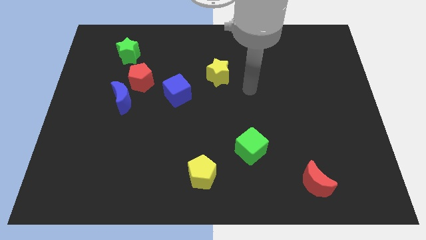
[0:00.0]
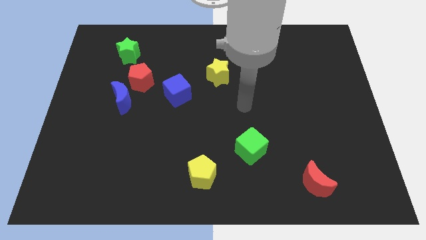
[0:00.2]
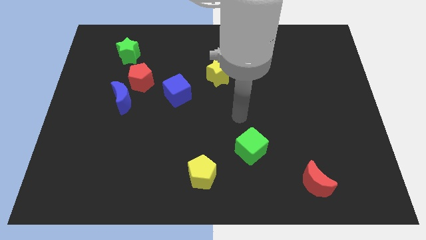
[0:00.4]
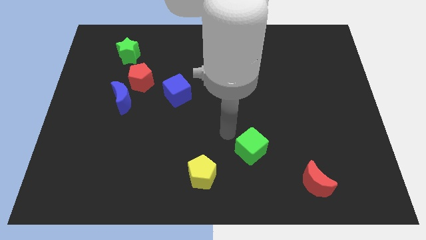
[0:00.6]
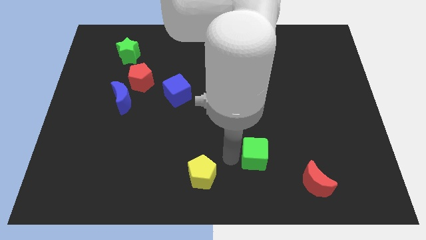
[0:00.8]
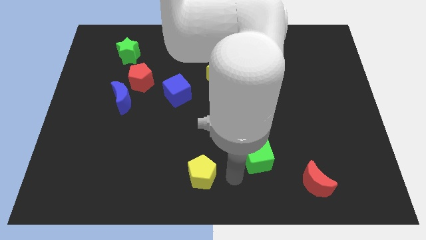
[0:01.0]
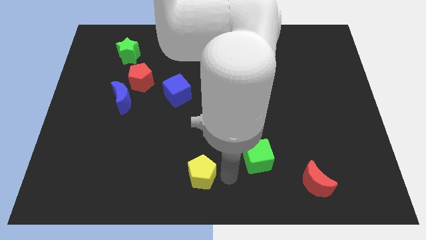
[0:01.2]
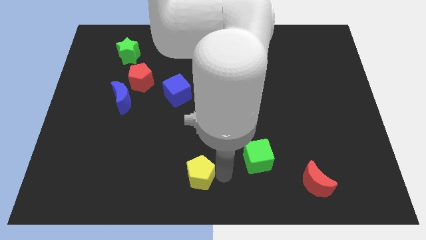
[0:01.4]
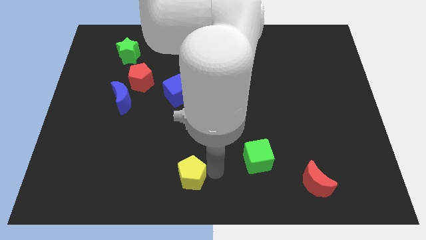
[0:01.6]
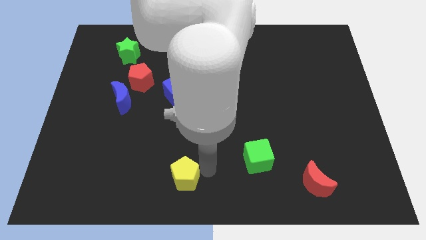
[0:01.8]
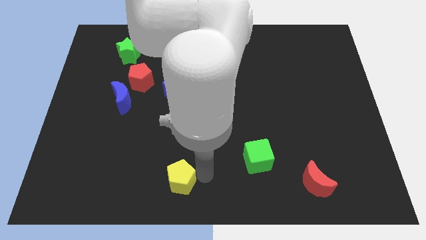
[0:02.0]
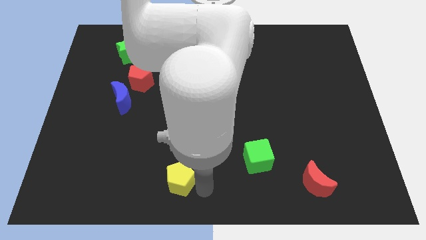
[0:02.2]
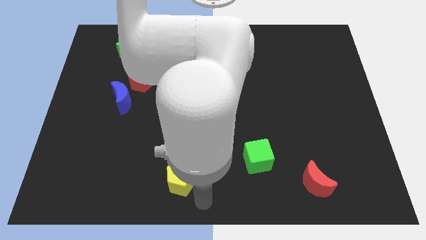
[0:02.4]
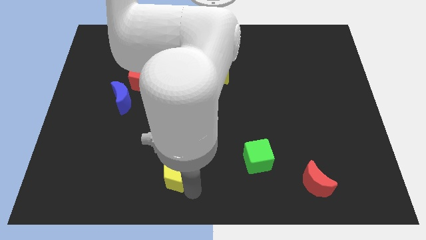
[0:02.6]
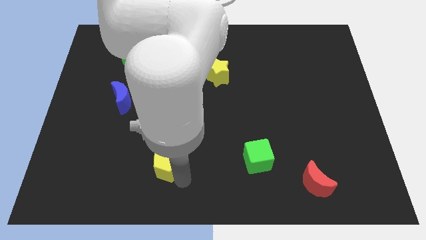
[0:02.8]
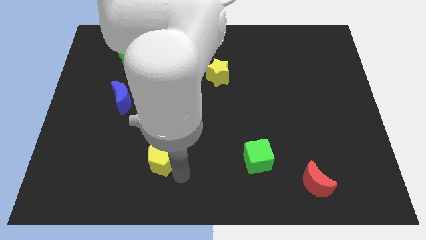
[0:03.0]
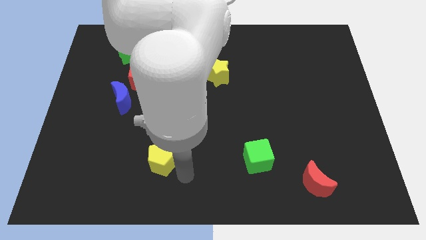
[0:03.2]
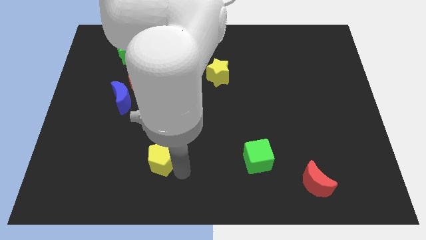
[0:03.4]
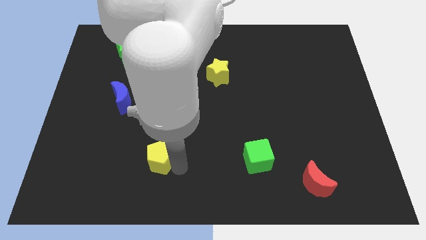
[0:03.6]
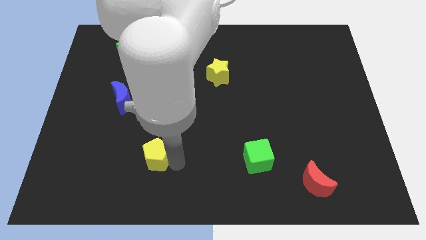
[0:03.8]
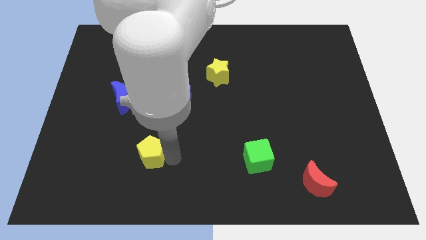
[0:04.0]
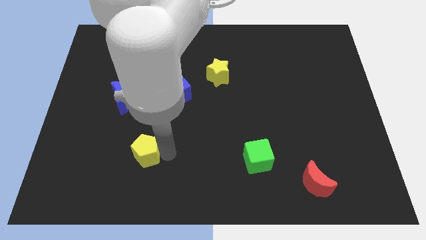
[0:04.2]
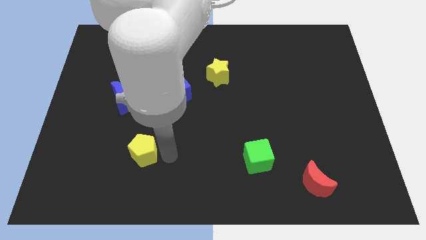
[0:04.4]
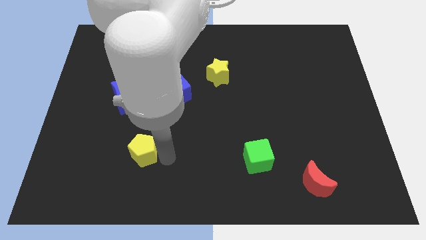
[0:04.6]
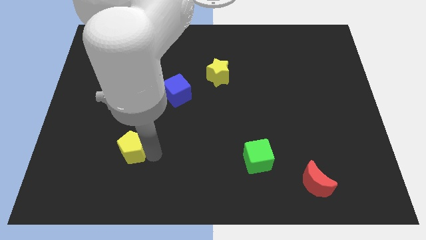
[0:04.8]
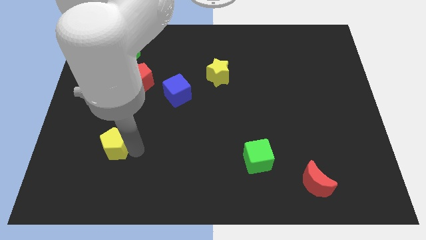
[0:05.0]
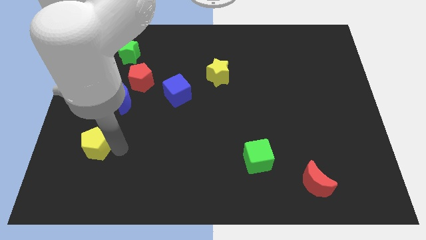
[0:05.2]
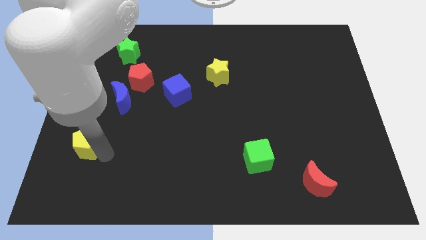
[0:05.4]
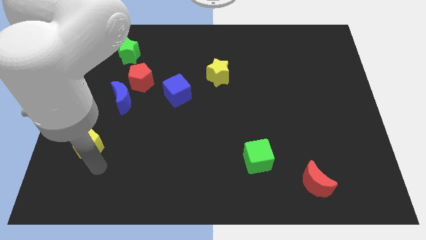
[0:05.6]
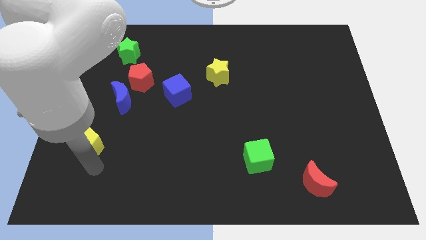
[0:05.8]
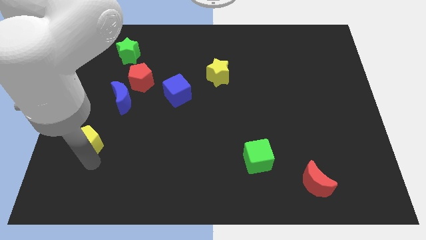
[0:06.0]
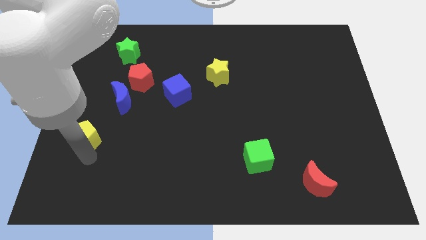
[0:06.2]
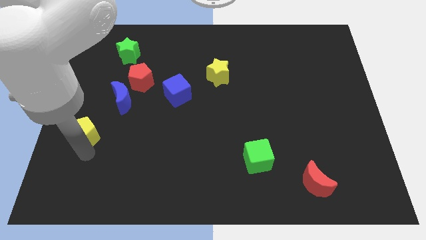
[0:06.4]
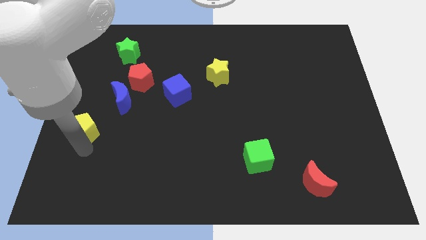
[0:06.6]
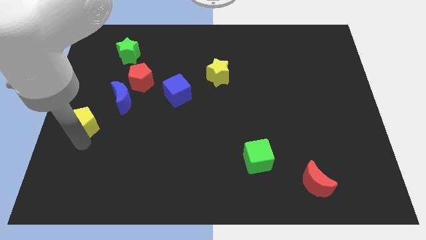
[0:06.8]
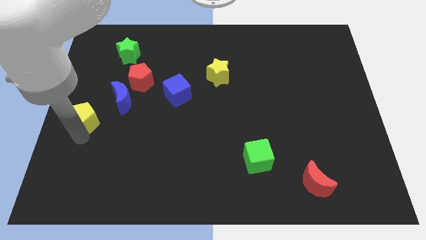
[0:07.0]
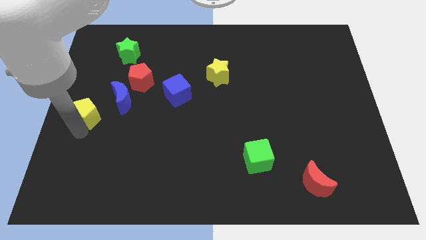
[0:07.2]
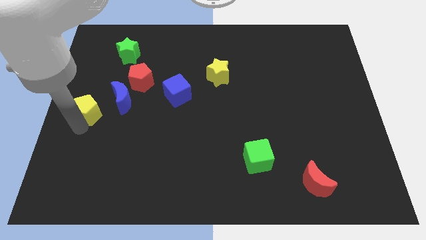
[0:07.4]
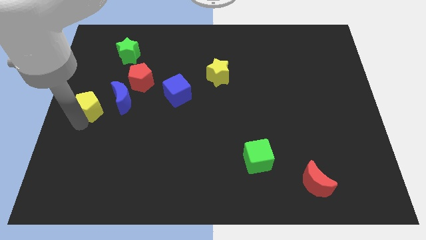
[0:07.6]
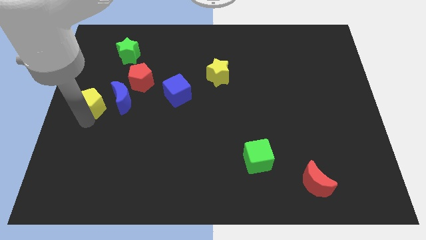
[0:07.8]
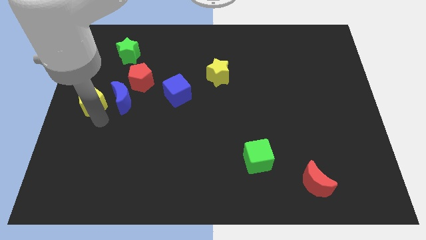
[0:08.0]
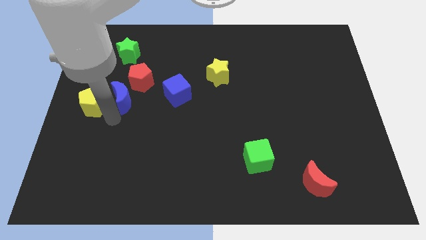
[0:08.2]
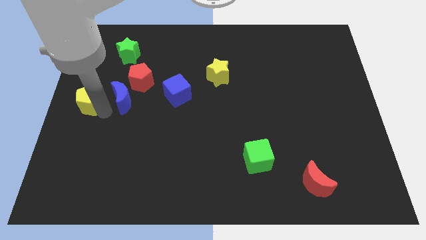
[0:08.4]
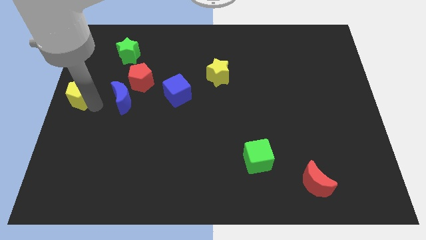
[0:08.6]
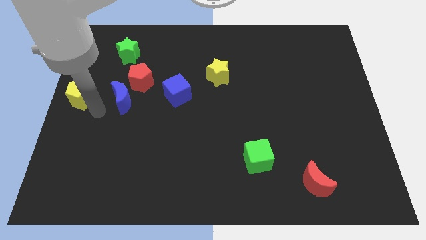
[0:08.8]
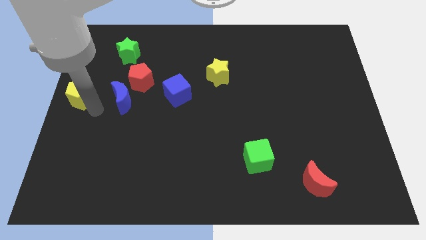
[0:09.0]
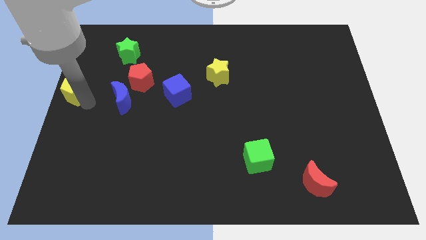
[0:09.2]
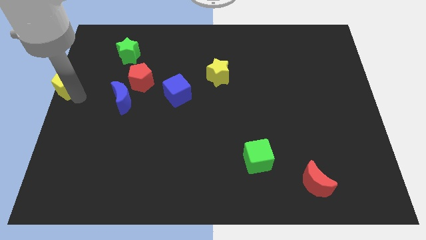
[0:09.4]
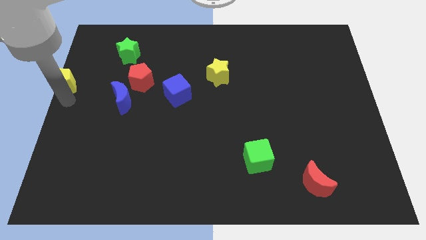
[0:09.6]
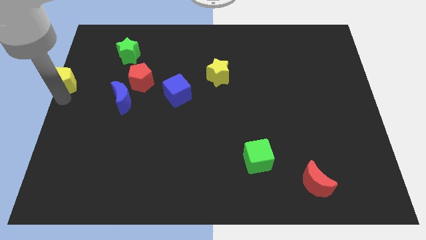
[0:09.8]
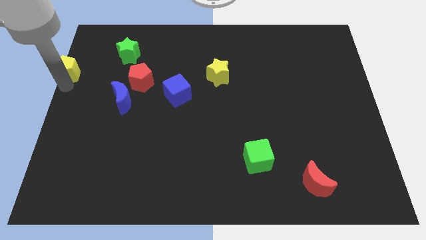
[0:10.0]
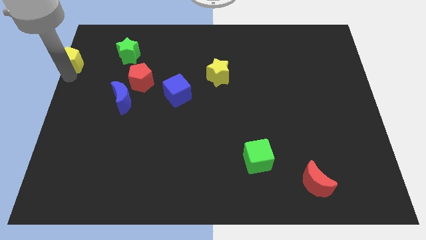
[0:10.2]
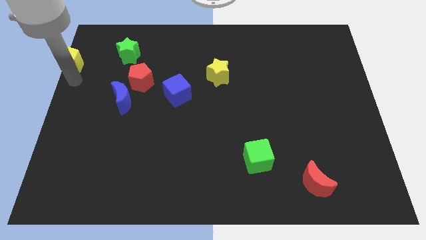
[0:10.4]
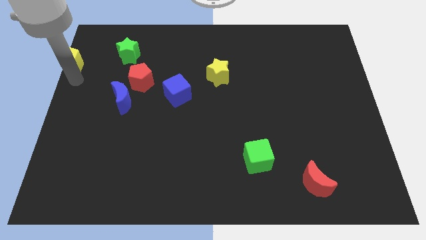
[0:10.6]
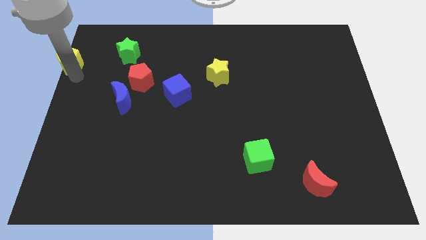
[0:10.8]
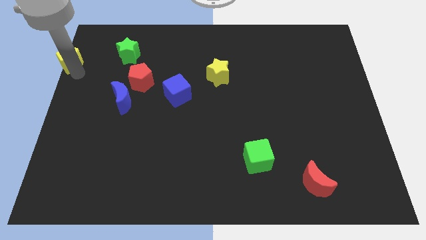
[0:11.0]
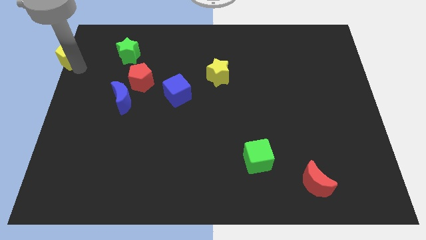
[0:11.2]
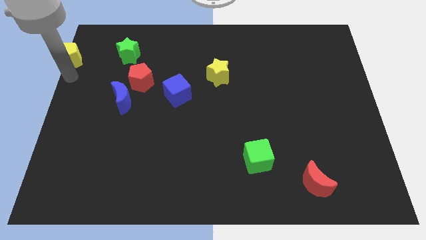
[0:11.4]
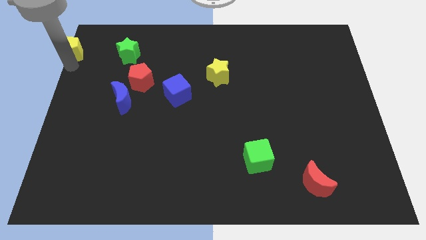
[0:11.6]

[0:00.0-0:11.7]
push the yellow pentagon to the upper left corner

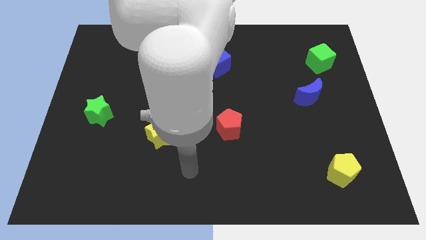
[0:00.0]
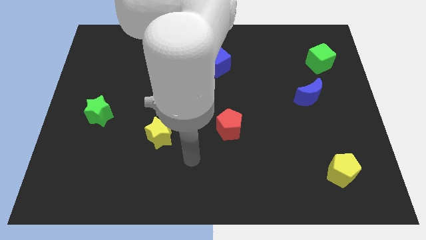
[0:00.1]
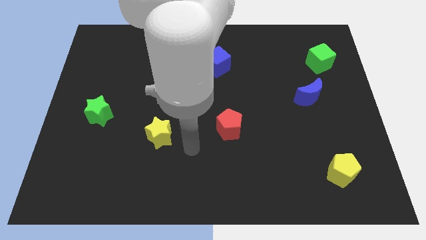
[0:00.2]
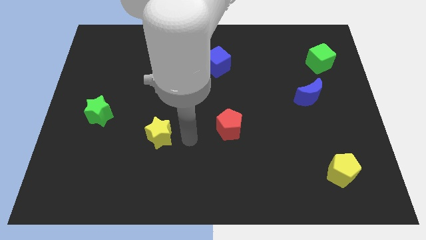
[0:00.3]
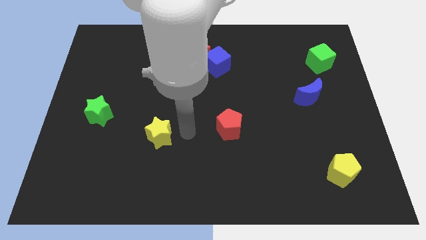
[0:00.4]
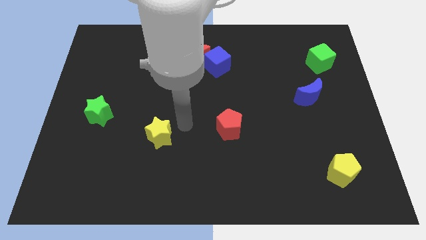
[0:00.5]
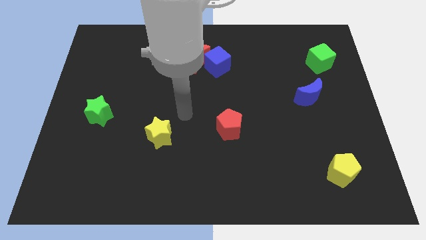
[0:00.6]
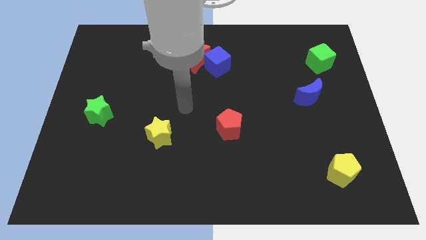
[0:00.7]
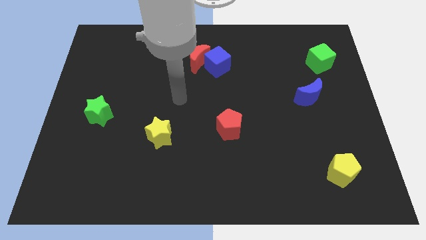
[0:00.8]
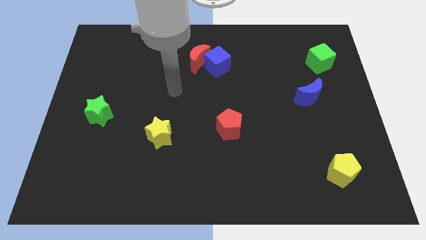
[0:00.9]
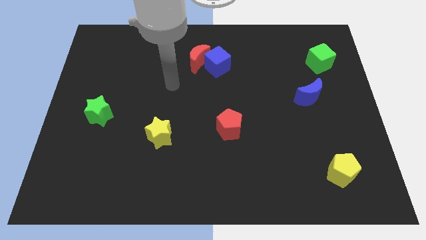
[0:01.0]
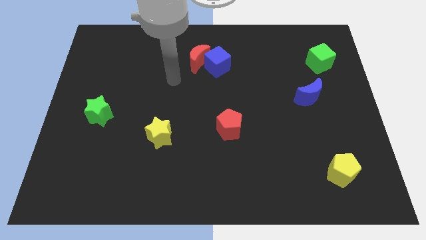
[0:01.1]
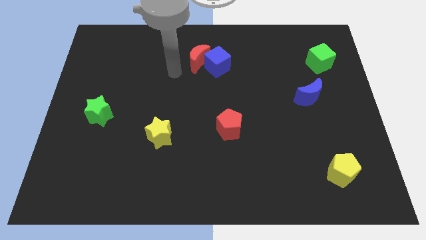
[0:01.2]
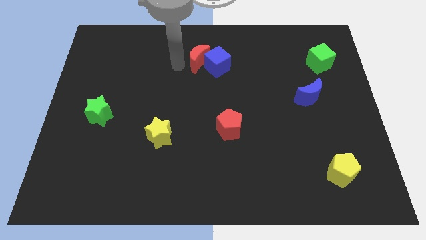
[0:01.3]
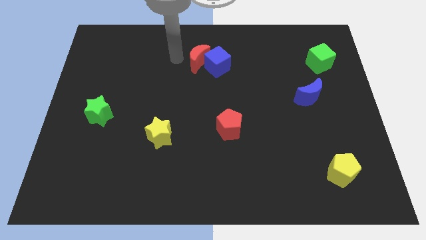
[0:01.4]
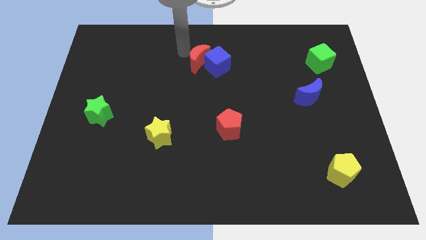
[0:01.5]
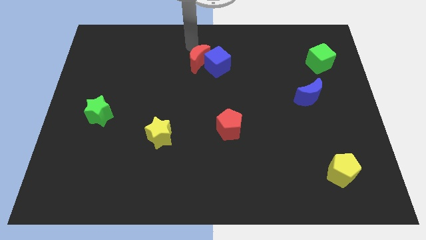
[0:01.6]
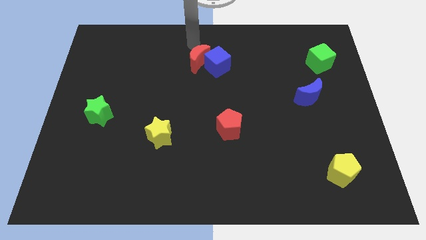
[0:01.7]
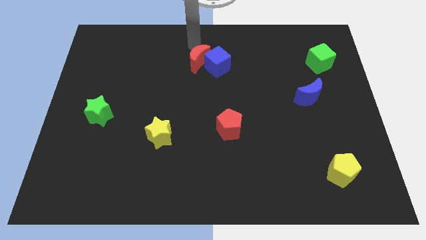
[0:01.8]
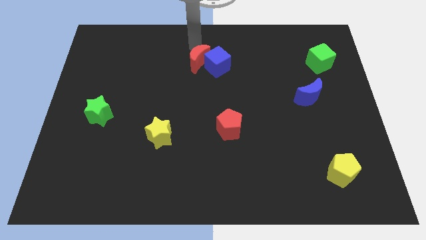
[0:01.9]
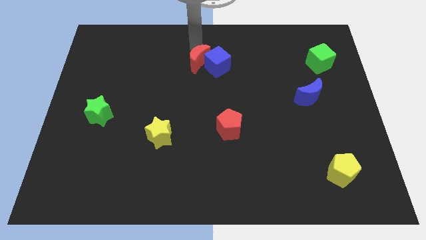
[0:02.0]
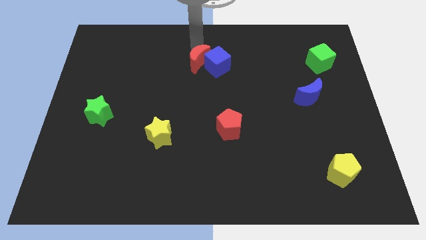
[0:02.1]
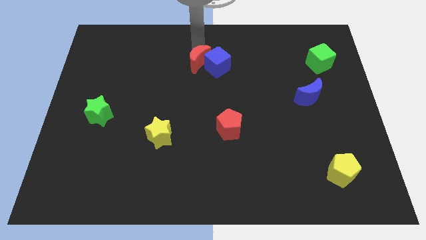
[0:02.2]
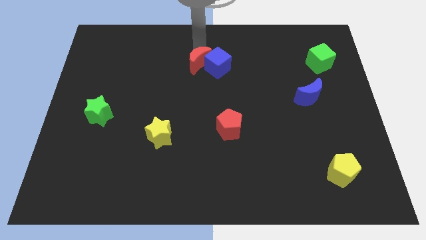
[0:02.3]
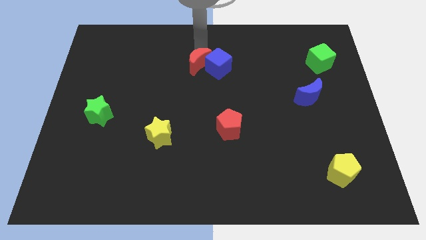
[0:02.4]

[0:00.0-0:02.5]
move the red moon to the center
